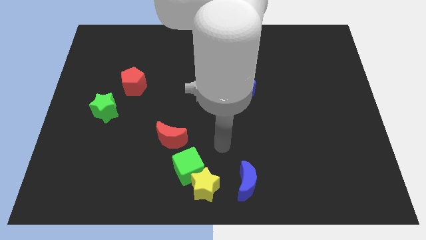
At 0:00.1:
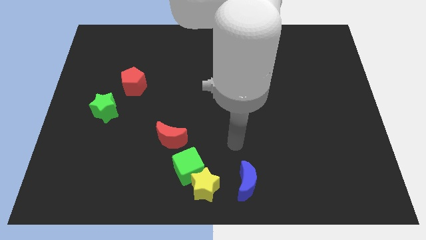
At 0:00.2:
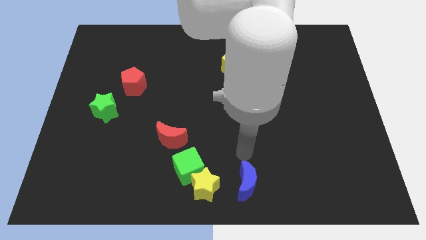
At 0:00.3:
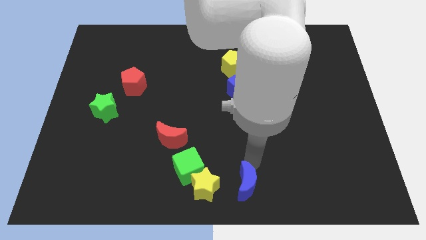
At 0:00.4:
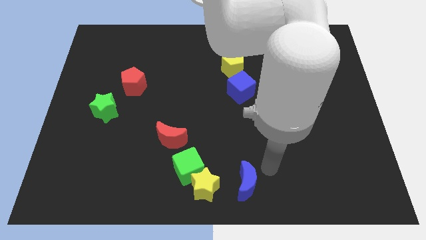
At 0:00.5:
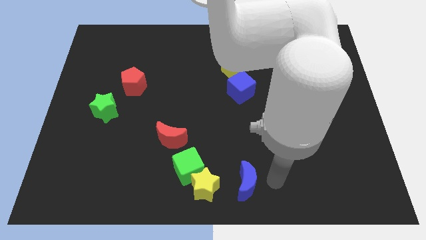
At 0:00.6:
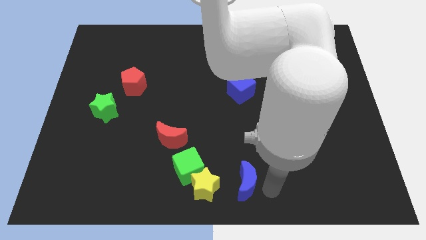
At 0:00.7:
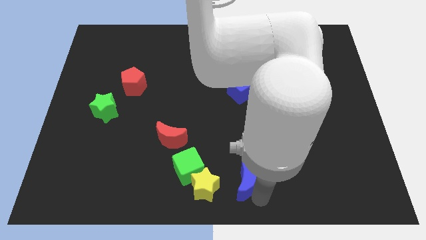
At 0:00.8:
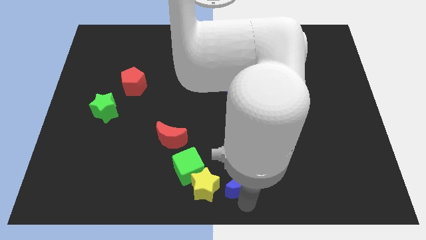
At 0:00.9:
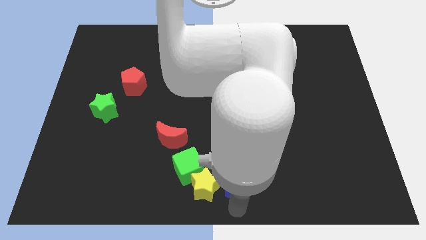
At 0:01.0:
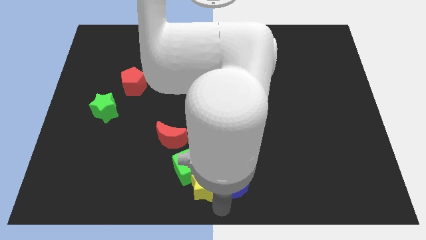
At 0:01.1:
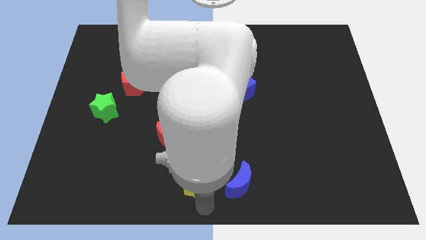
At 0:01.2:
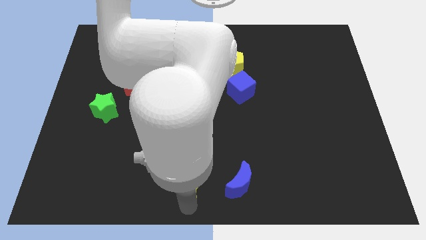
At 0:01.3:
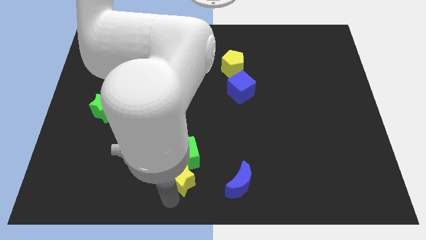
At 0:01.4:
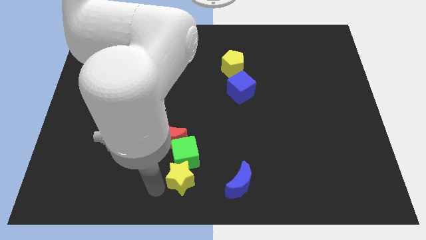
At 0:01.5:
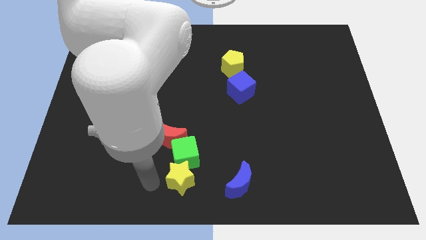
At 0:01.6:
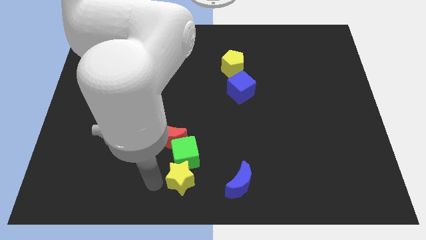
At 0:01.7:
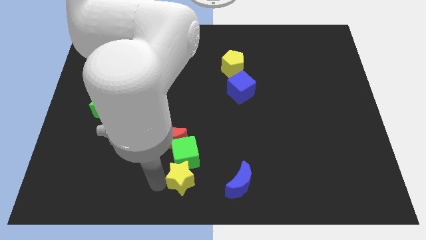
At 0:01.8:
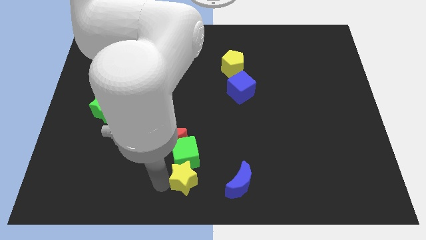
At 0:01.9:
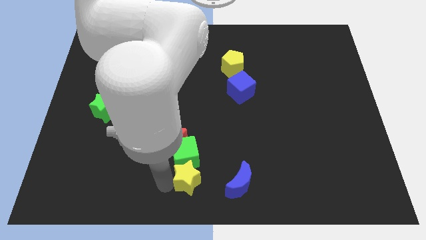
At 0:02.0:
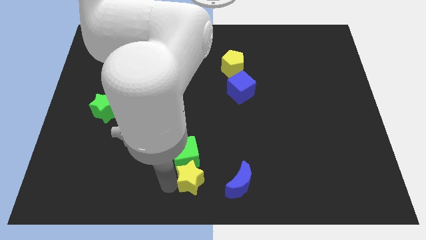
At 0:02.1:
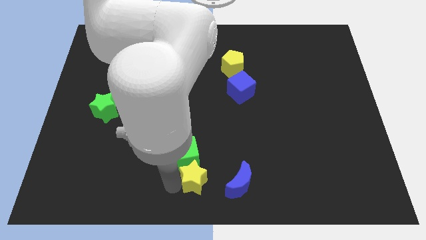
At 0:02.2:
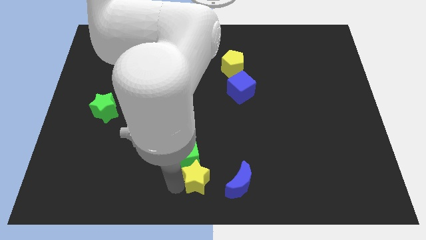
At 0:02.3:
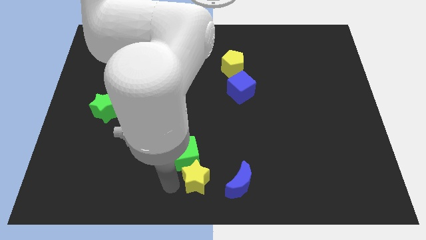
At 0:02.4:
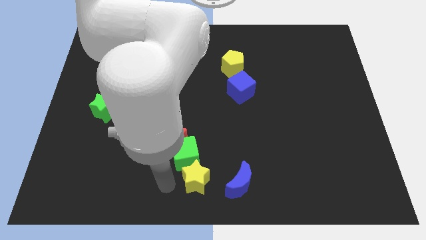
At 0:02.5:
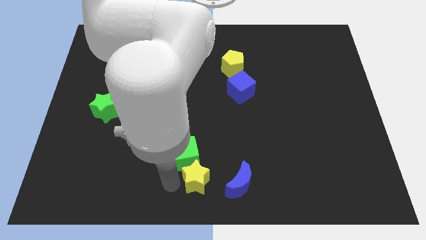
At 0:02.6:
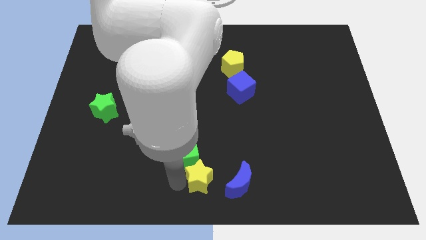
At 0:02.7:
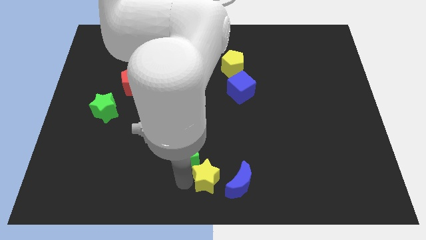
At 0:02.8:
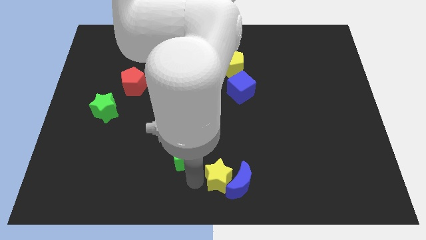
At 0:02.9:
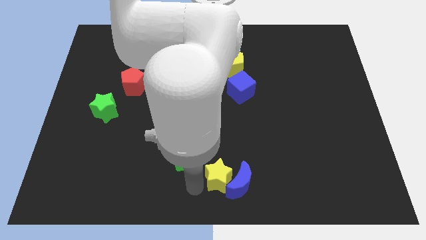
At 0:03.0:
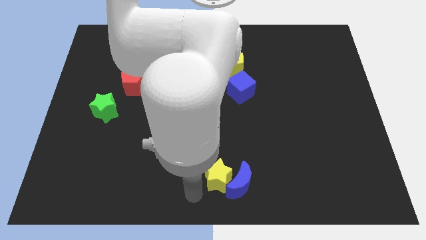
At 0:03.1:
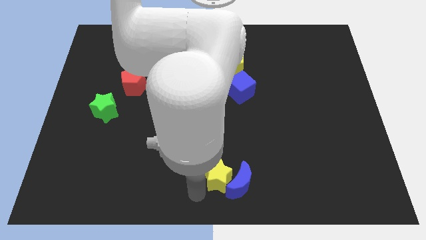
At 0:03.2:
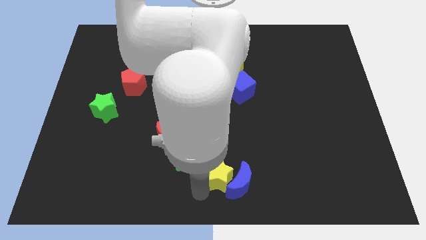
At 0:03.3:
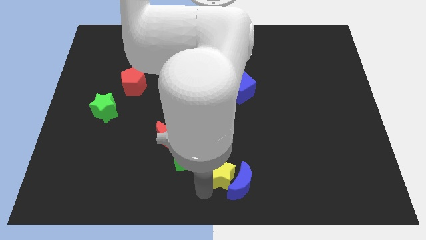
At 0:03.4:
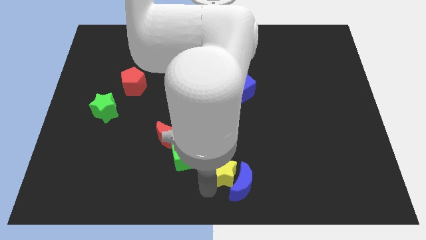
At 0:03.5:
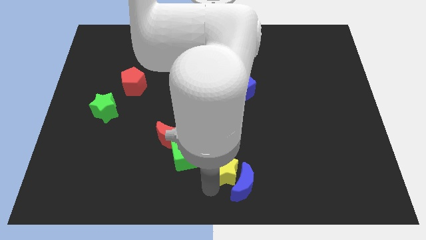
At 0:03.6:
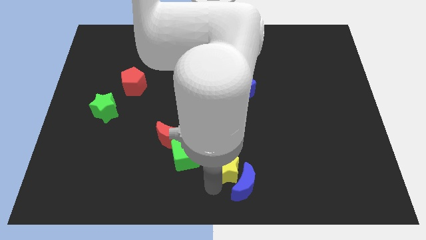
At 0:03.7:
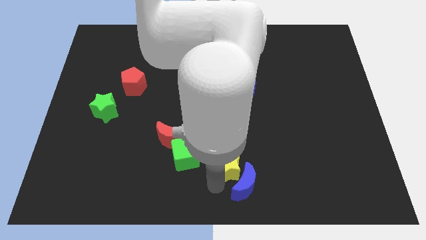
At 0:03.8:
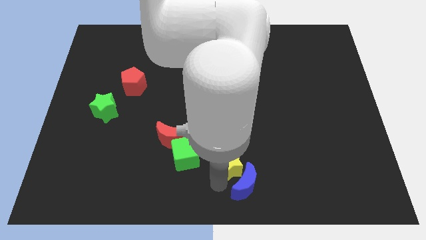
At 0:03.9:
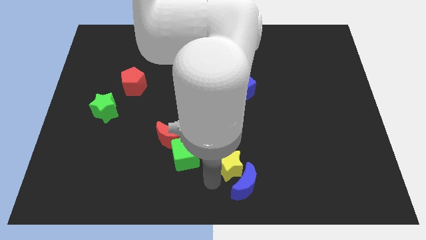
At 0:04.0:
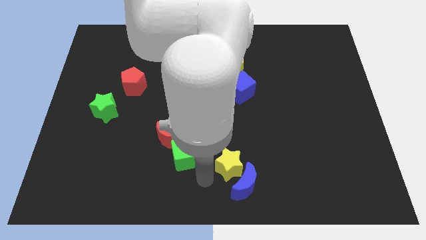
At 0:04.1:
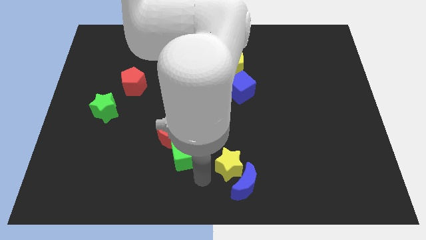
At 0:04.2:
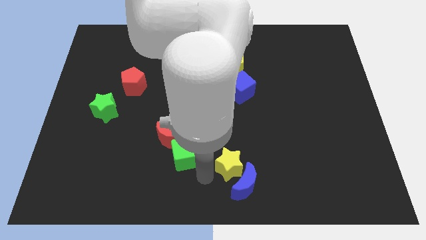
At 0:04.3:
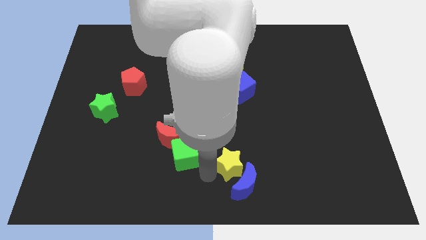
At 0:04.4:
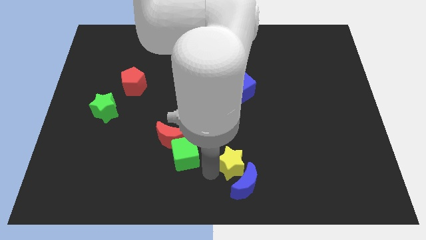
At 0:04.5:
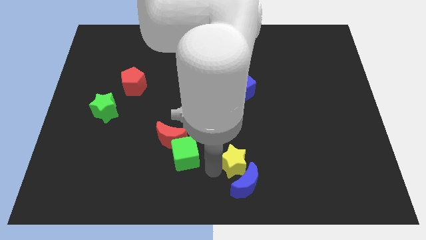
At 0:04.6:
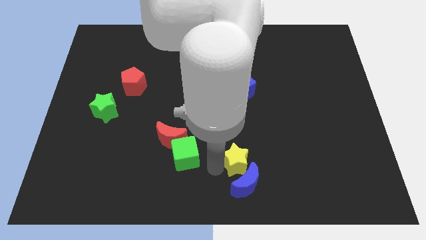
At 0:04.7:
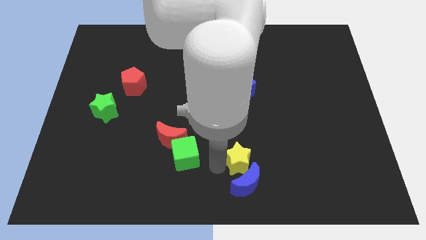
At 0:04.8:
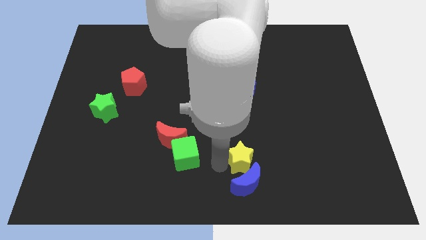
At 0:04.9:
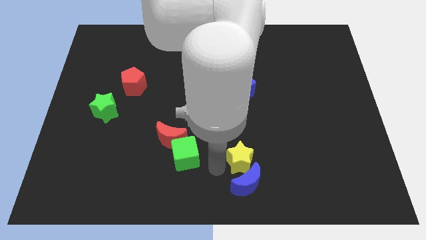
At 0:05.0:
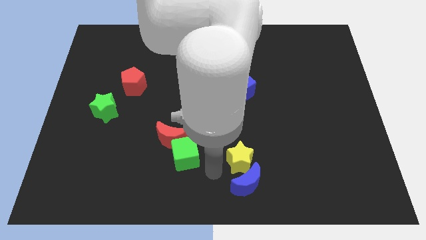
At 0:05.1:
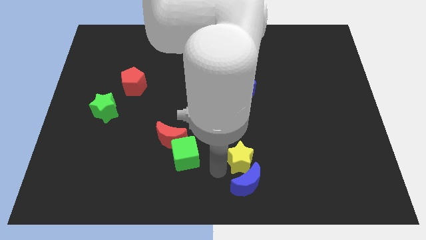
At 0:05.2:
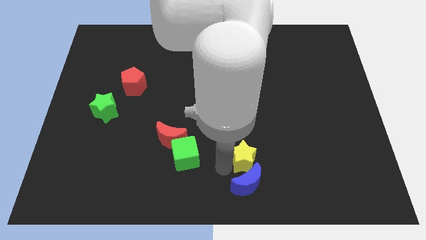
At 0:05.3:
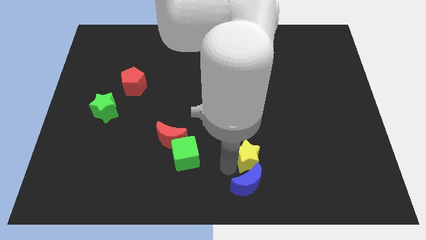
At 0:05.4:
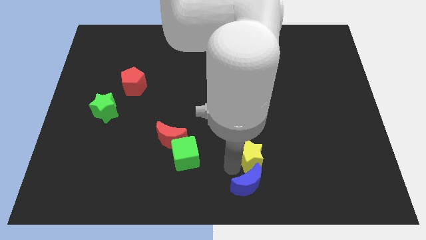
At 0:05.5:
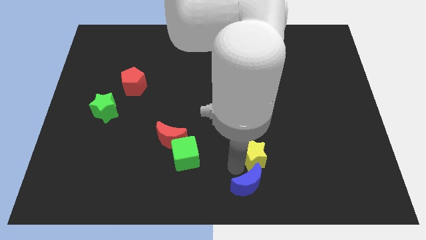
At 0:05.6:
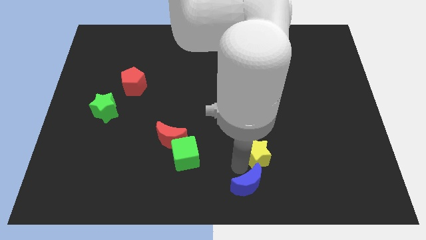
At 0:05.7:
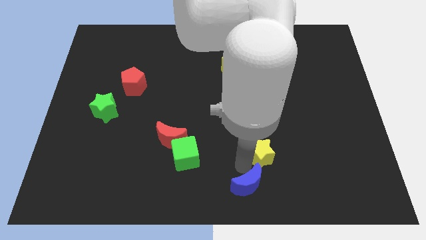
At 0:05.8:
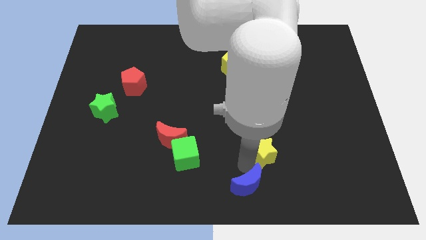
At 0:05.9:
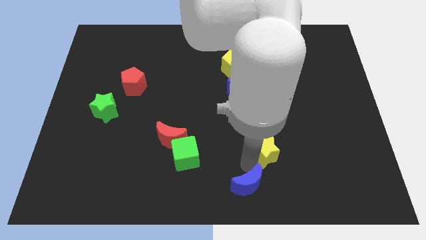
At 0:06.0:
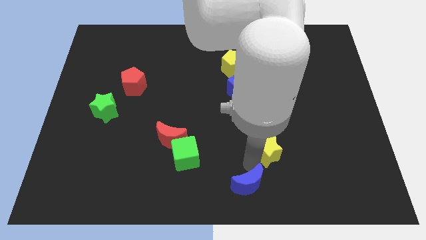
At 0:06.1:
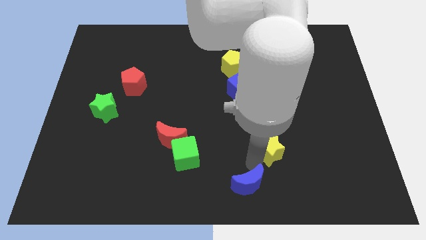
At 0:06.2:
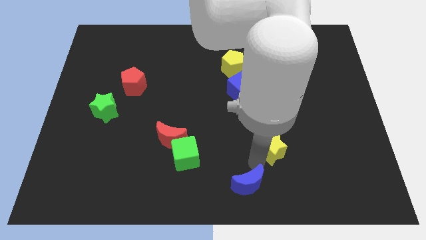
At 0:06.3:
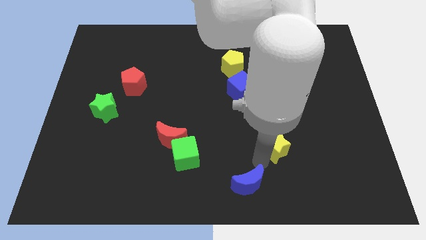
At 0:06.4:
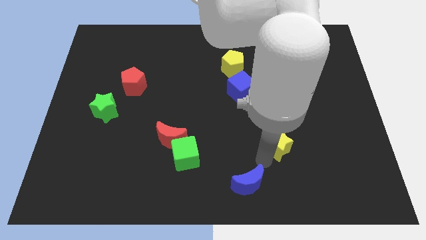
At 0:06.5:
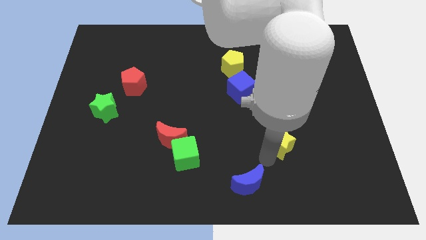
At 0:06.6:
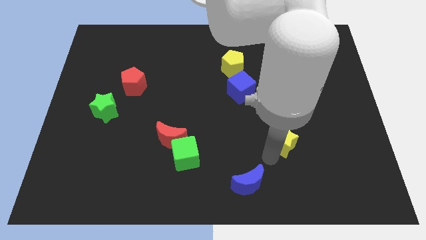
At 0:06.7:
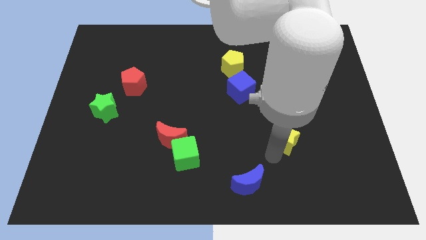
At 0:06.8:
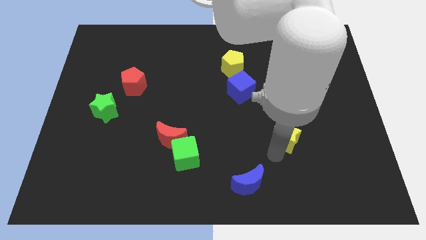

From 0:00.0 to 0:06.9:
move the yellow star up and right

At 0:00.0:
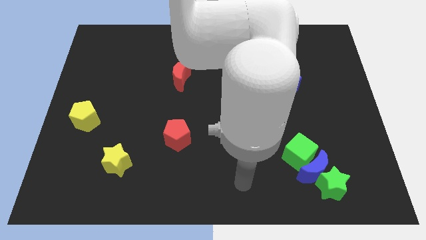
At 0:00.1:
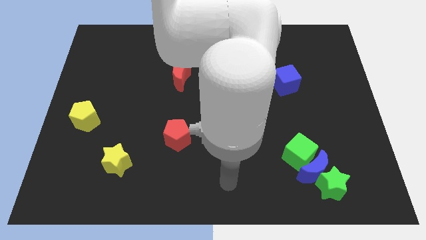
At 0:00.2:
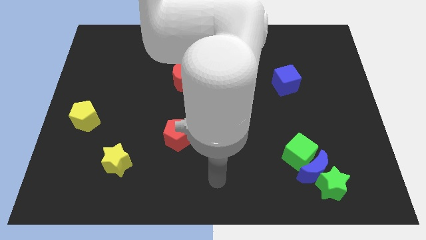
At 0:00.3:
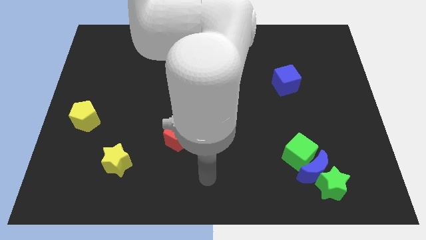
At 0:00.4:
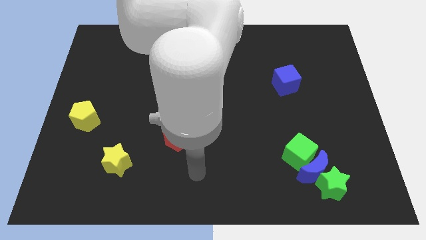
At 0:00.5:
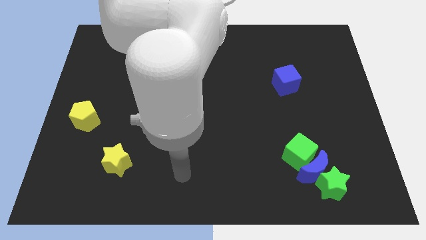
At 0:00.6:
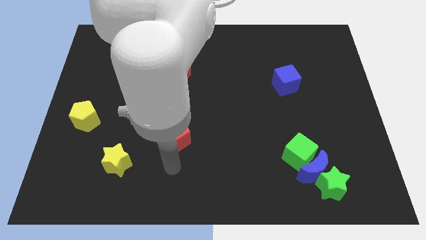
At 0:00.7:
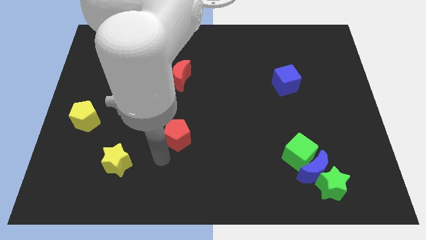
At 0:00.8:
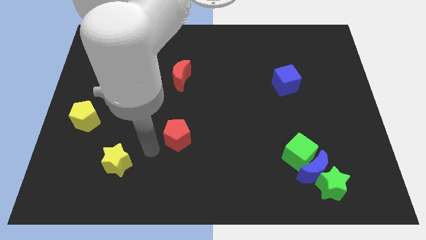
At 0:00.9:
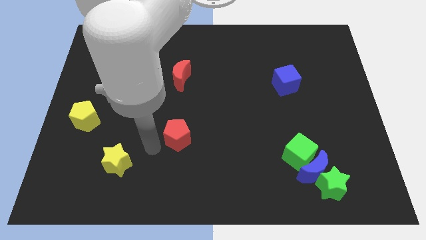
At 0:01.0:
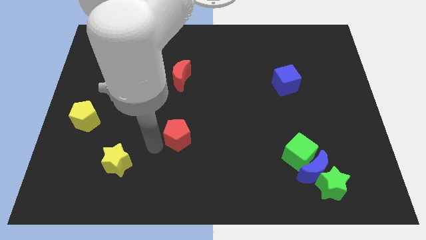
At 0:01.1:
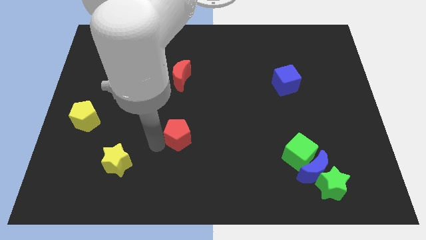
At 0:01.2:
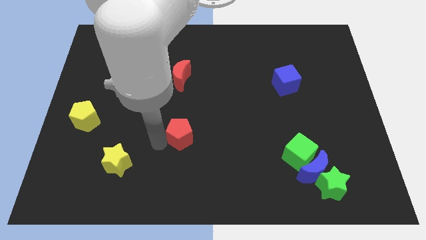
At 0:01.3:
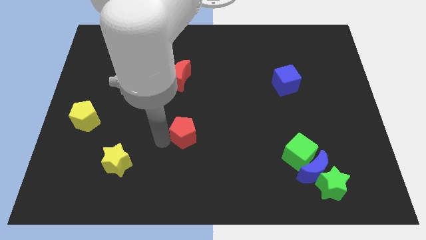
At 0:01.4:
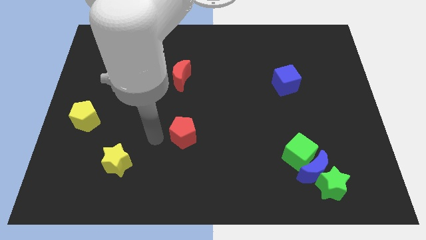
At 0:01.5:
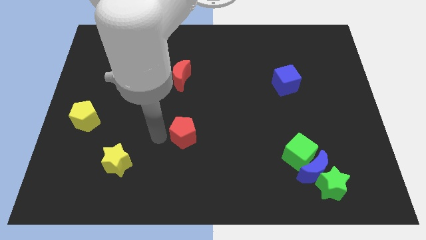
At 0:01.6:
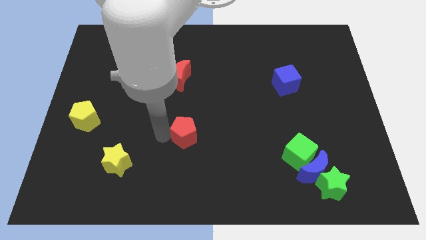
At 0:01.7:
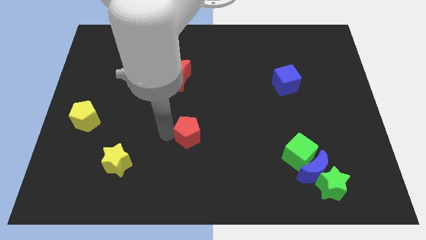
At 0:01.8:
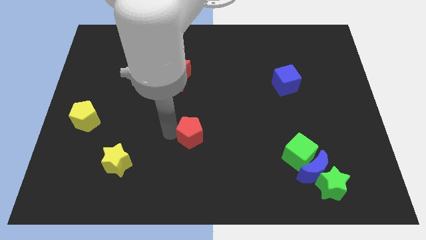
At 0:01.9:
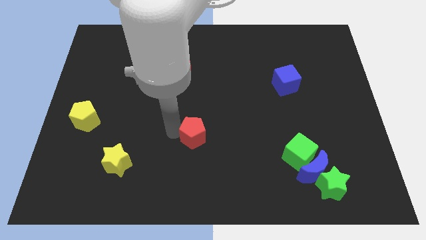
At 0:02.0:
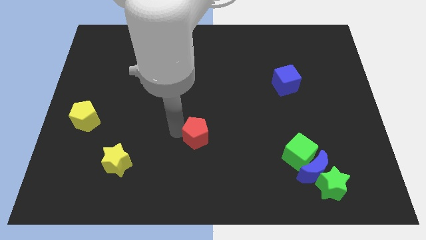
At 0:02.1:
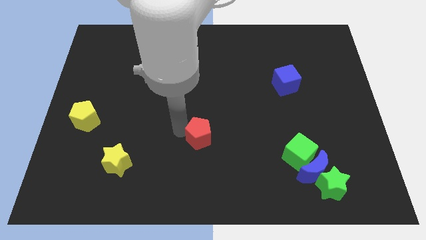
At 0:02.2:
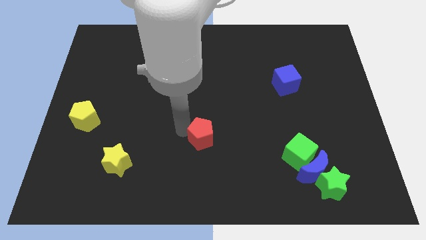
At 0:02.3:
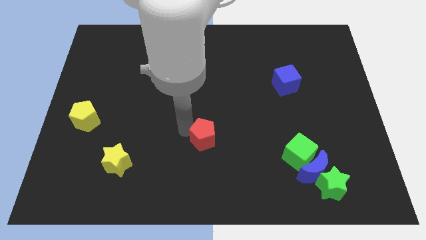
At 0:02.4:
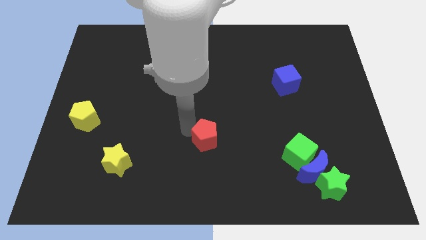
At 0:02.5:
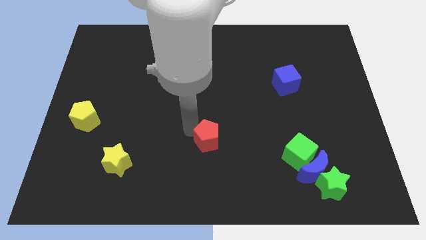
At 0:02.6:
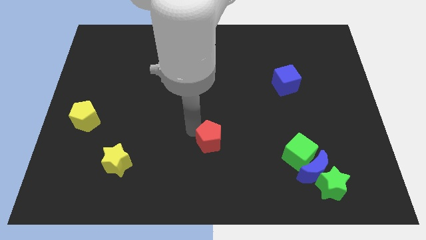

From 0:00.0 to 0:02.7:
slightly move the red pentagon right
